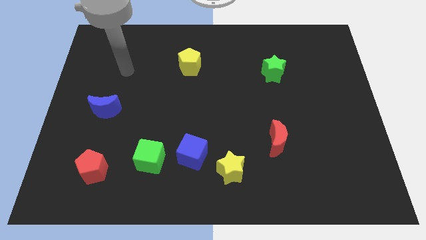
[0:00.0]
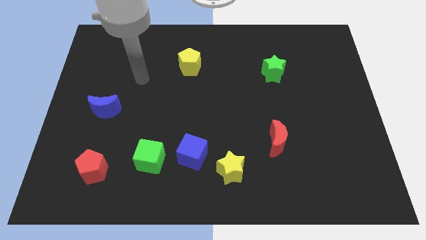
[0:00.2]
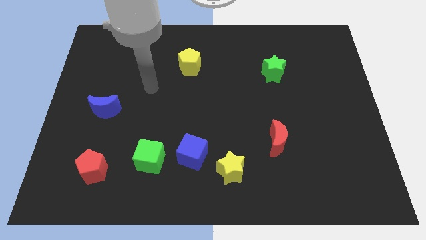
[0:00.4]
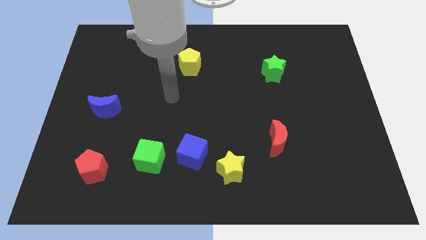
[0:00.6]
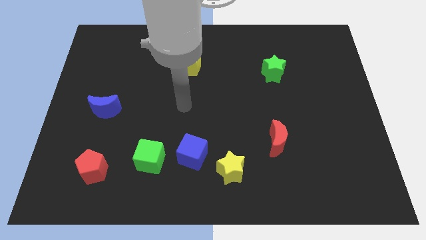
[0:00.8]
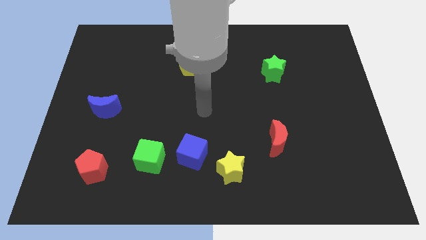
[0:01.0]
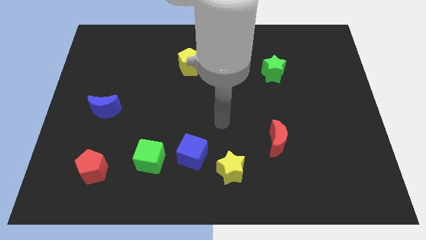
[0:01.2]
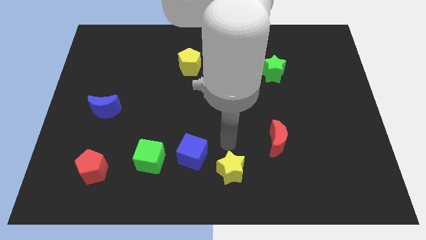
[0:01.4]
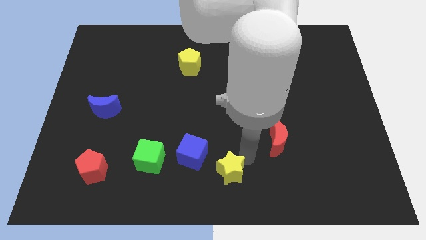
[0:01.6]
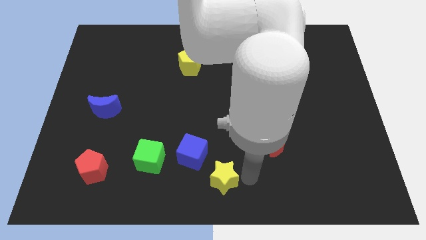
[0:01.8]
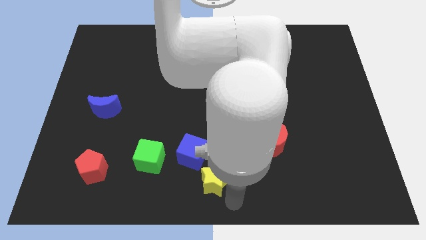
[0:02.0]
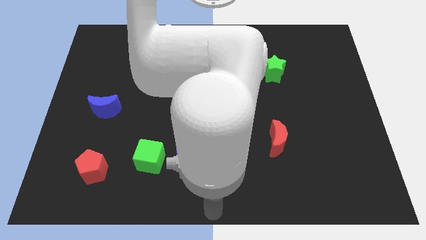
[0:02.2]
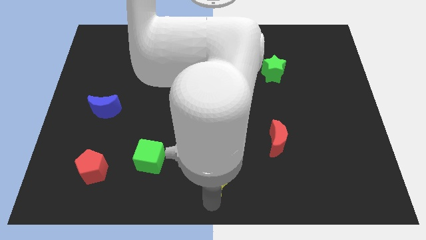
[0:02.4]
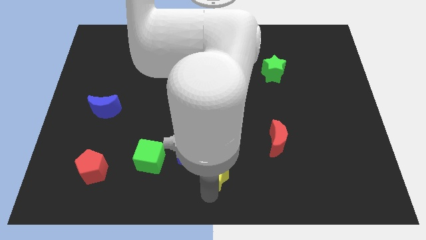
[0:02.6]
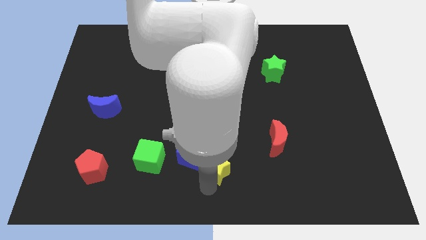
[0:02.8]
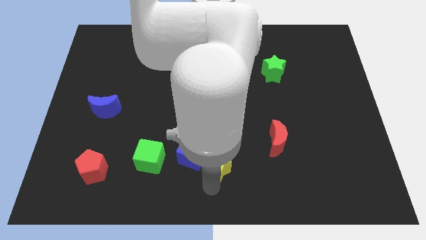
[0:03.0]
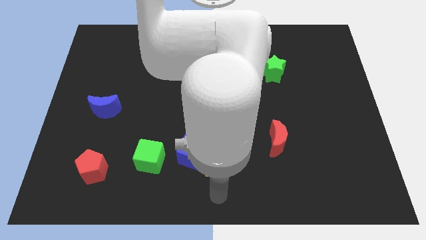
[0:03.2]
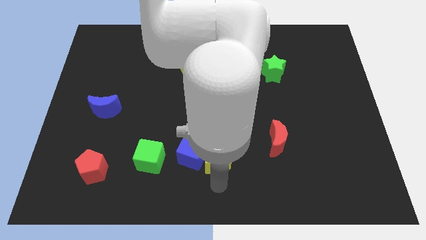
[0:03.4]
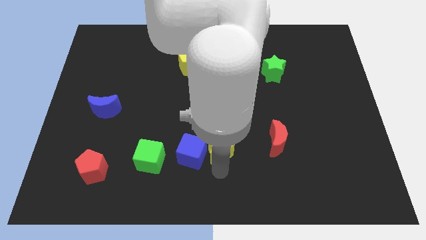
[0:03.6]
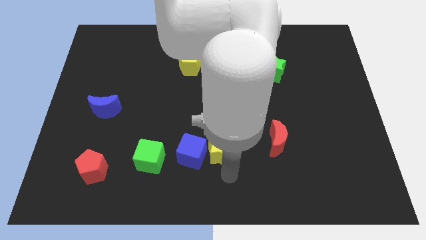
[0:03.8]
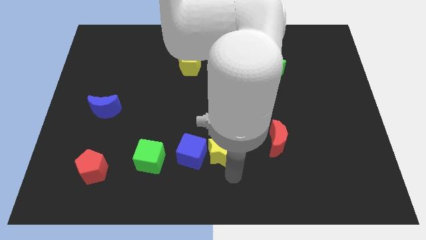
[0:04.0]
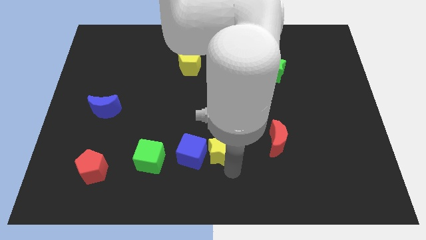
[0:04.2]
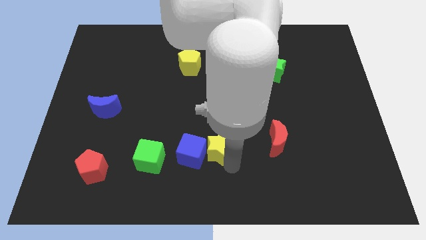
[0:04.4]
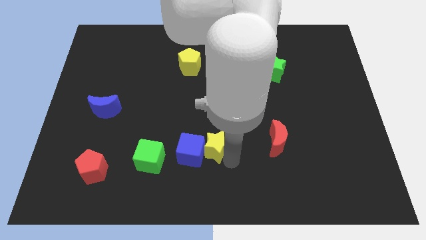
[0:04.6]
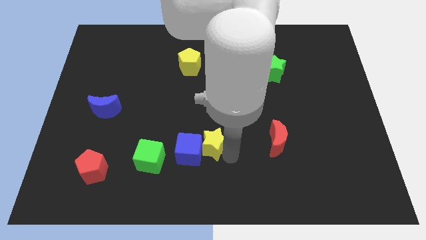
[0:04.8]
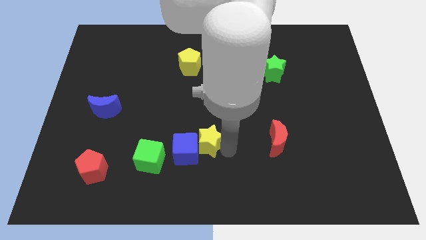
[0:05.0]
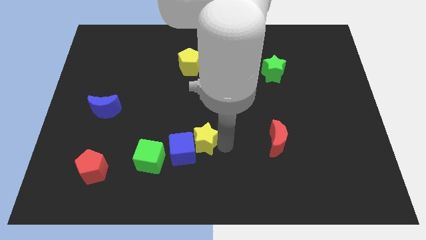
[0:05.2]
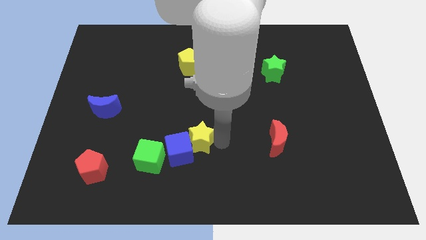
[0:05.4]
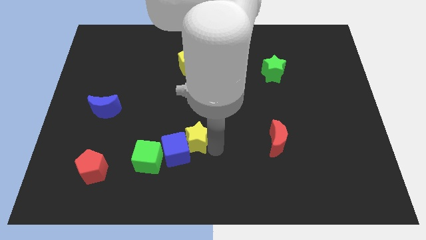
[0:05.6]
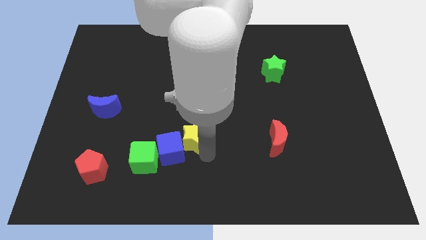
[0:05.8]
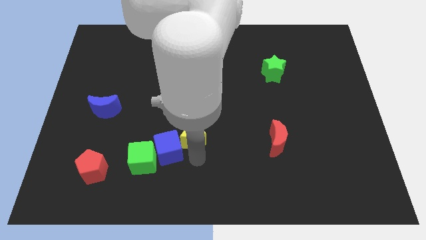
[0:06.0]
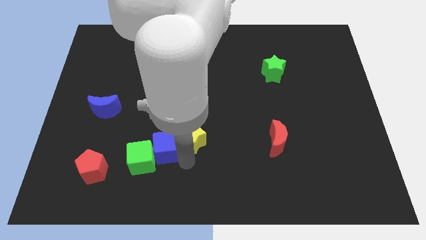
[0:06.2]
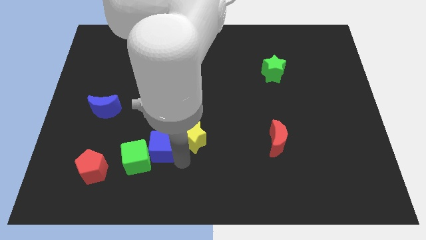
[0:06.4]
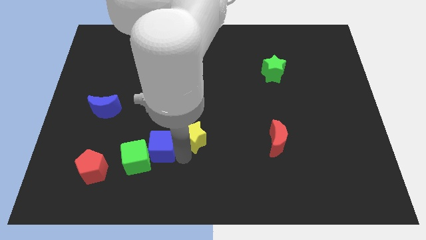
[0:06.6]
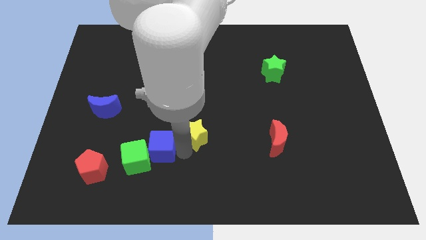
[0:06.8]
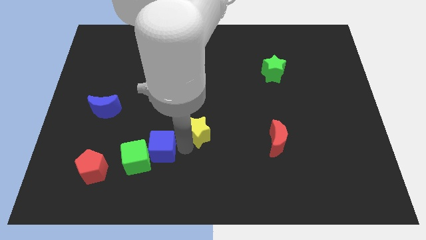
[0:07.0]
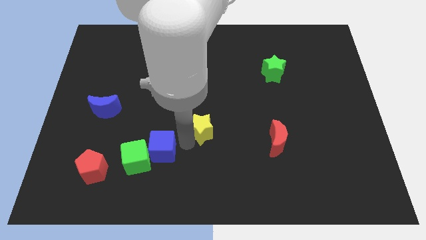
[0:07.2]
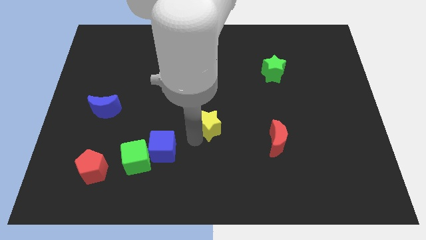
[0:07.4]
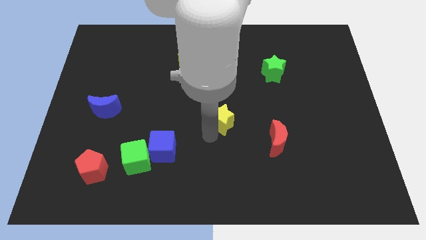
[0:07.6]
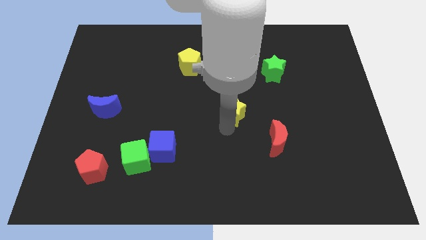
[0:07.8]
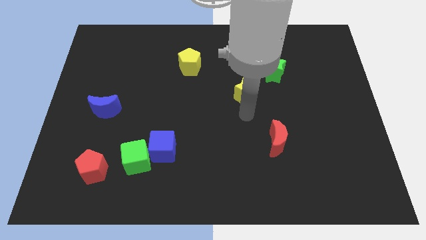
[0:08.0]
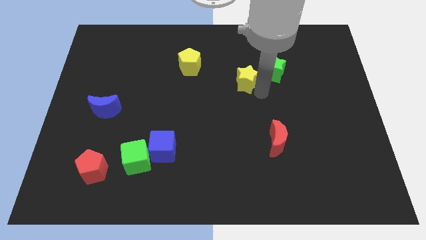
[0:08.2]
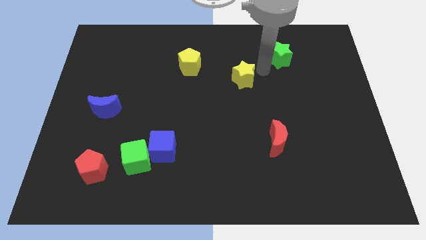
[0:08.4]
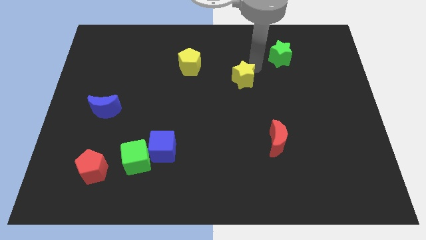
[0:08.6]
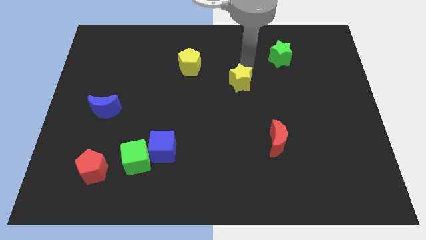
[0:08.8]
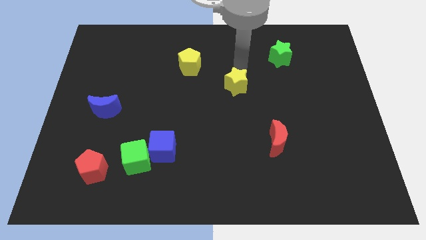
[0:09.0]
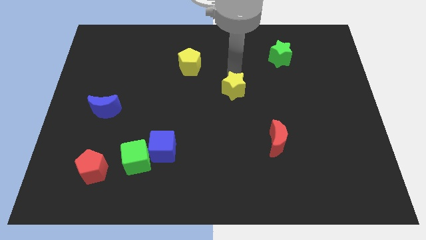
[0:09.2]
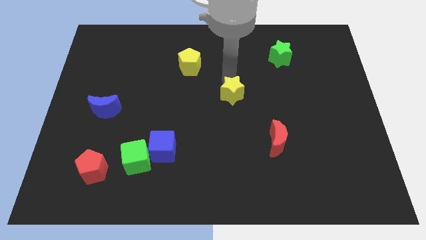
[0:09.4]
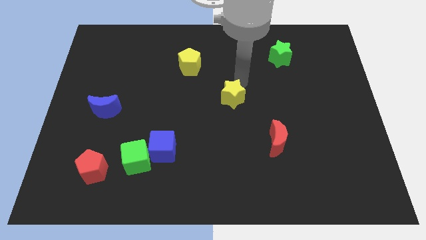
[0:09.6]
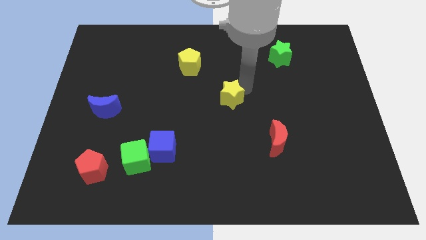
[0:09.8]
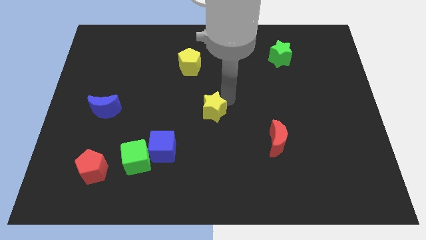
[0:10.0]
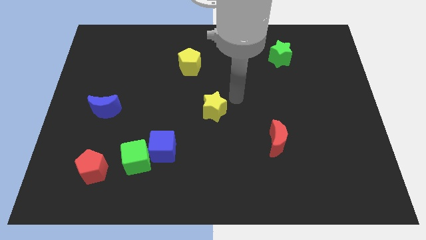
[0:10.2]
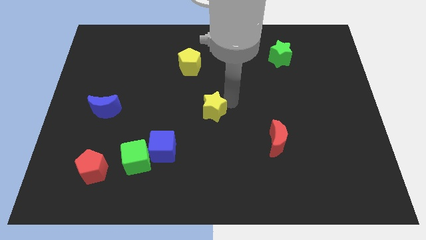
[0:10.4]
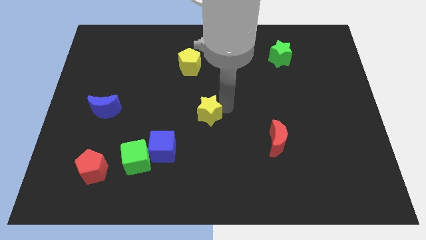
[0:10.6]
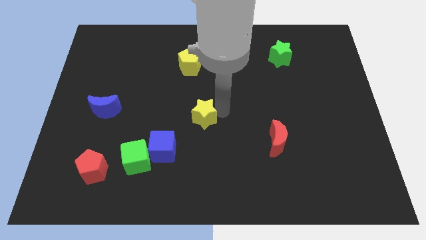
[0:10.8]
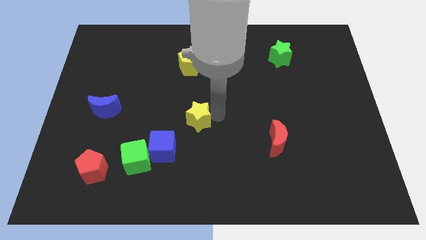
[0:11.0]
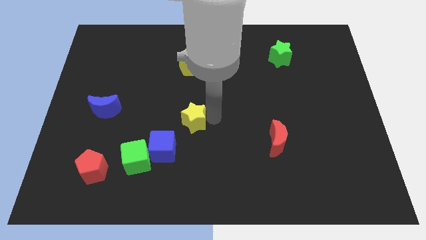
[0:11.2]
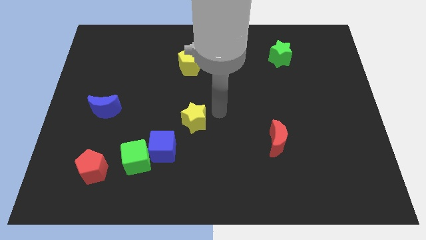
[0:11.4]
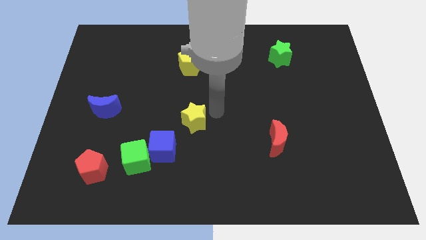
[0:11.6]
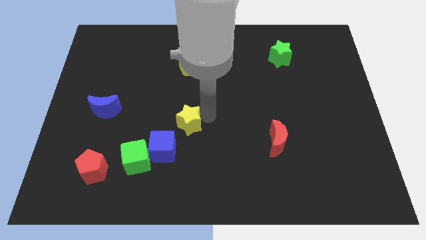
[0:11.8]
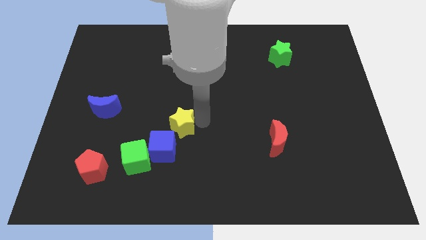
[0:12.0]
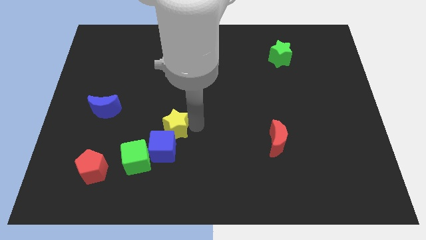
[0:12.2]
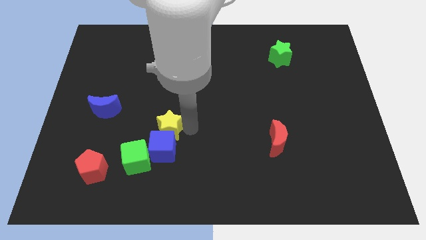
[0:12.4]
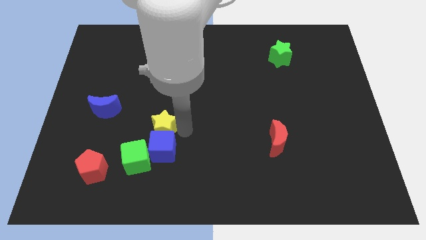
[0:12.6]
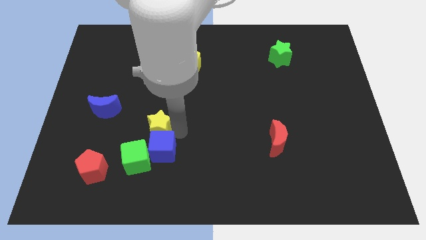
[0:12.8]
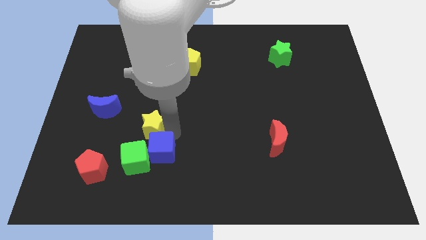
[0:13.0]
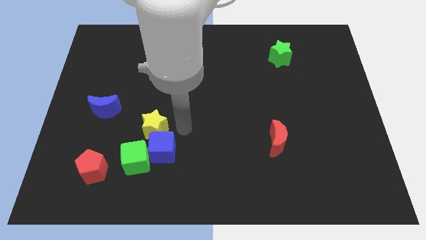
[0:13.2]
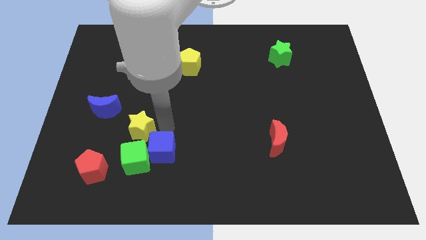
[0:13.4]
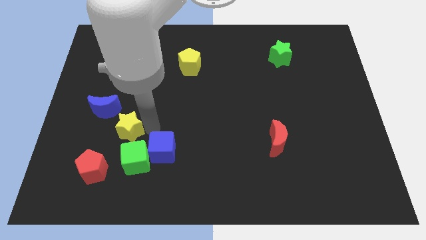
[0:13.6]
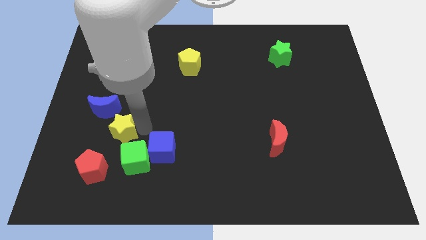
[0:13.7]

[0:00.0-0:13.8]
slide the yellow star above the red pentagon

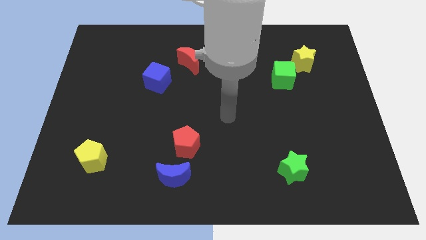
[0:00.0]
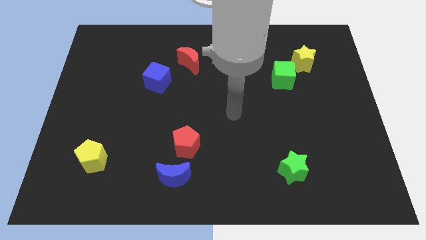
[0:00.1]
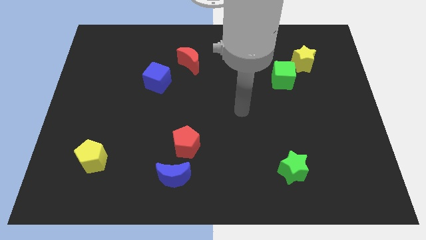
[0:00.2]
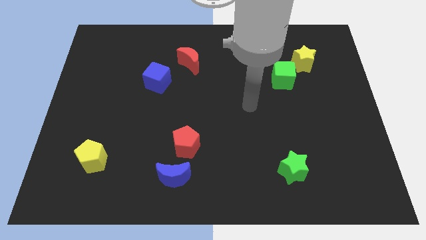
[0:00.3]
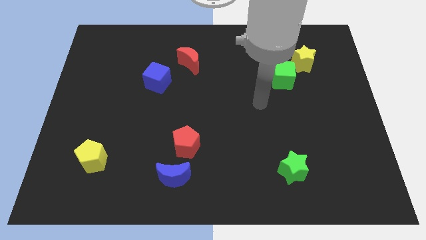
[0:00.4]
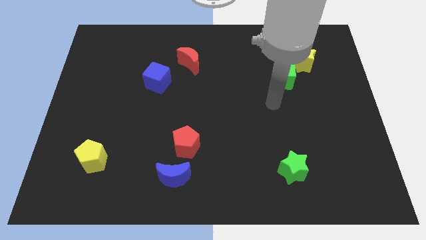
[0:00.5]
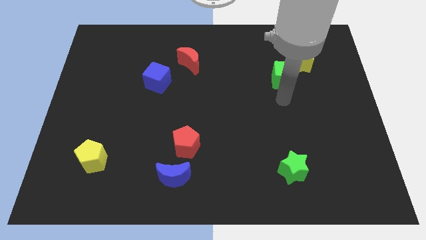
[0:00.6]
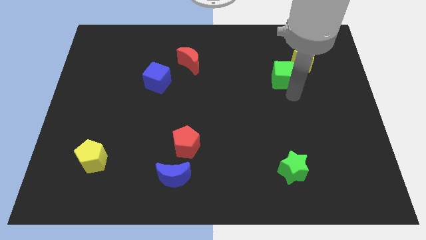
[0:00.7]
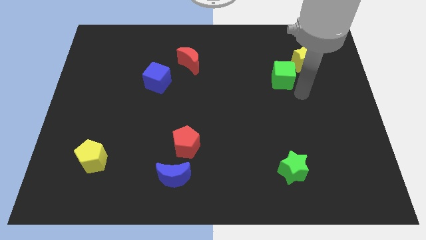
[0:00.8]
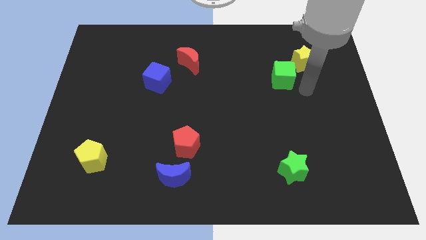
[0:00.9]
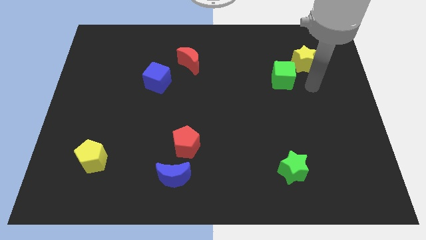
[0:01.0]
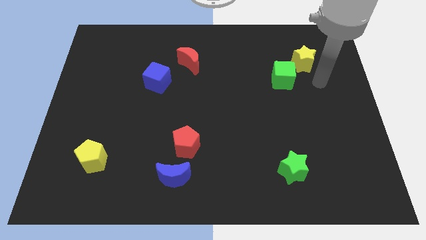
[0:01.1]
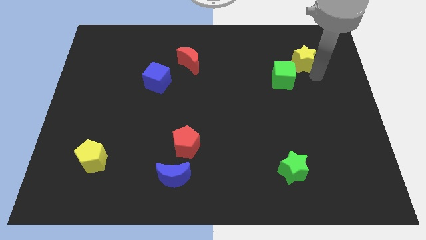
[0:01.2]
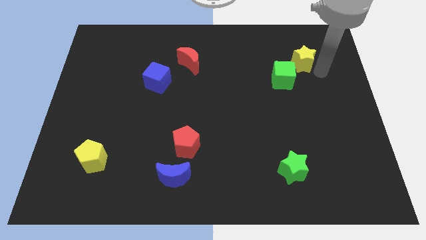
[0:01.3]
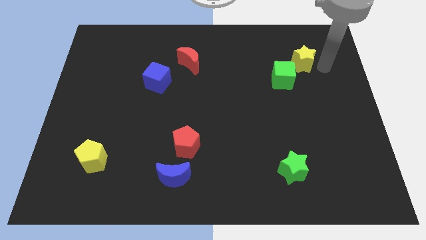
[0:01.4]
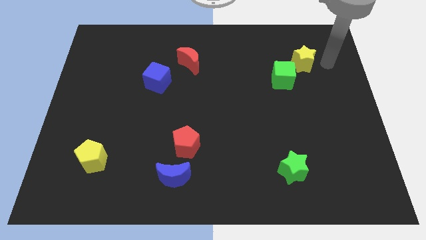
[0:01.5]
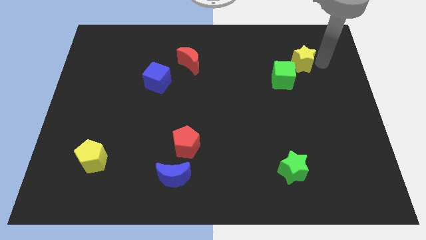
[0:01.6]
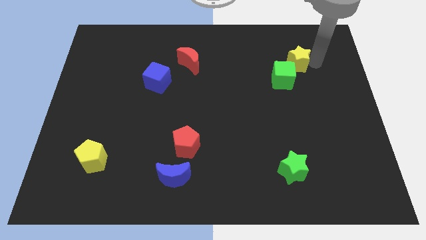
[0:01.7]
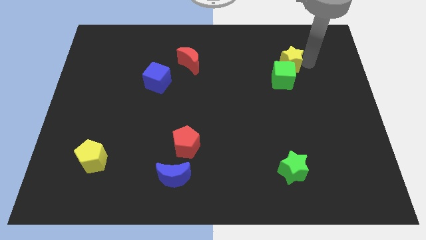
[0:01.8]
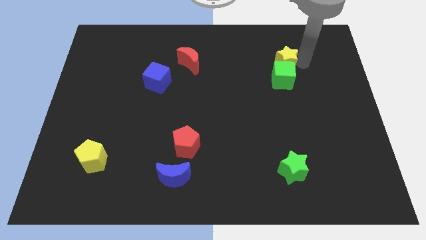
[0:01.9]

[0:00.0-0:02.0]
slide the yellow star to the top left of the green cube
